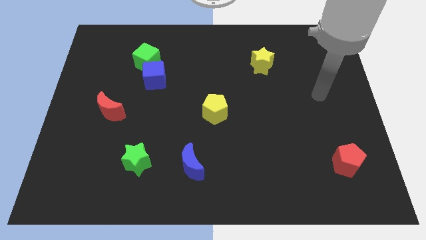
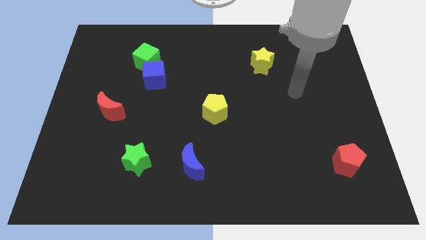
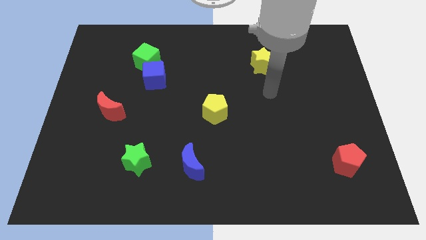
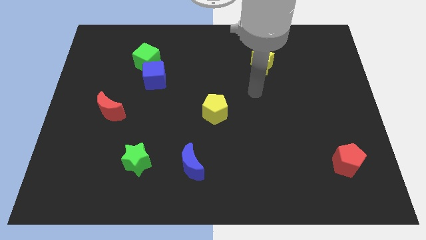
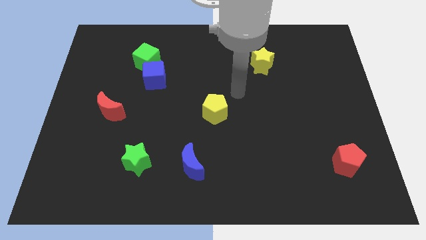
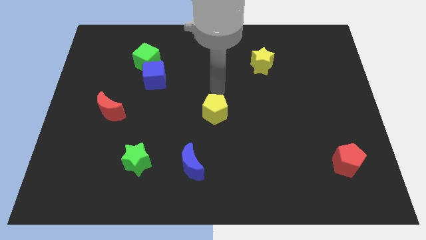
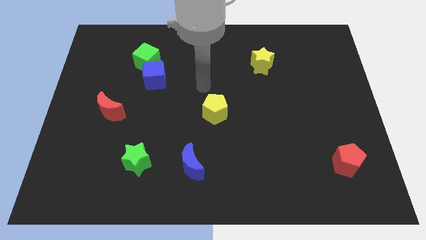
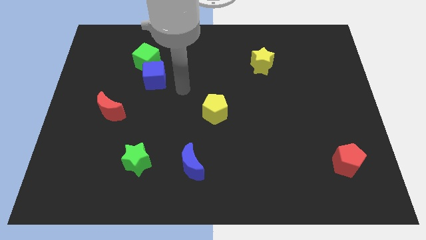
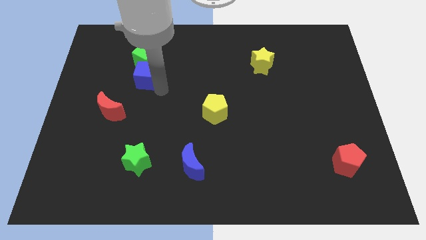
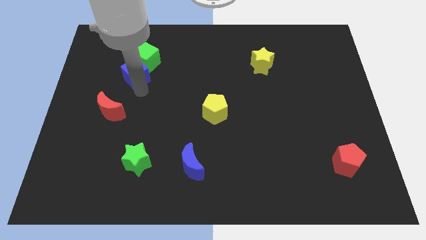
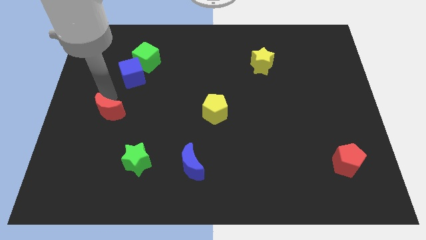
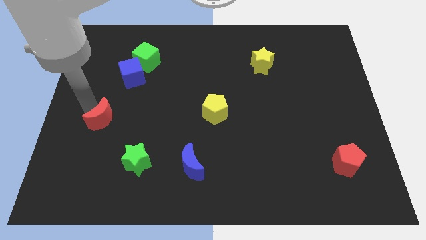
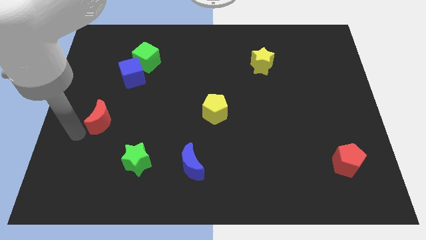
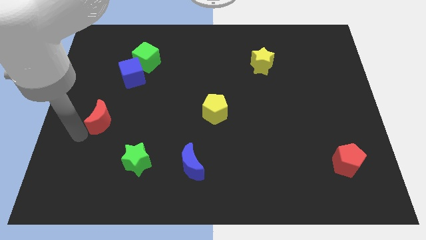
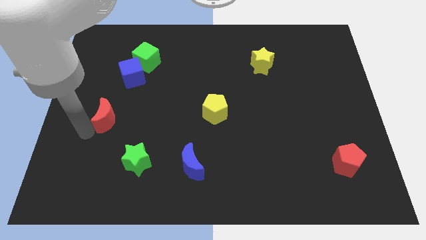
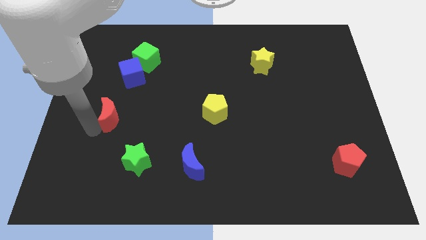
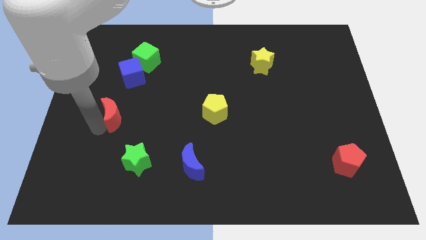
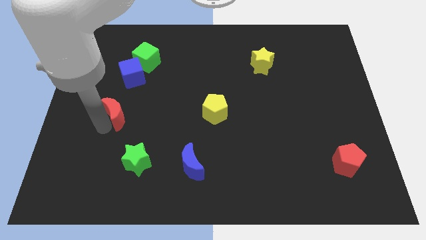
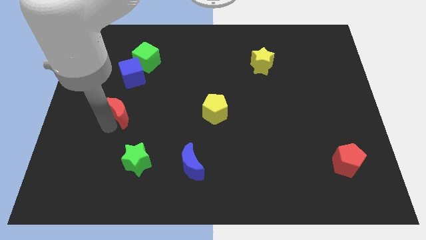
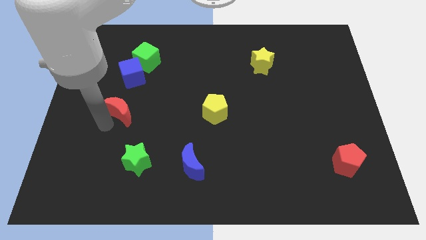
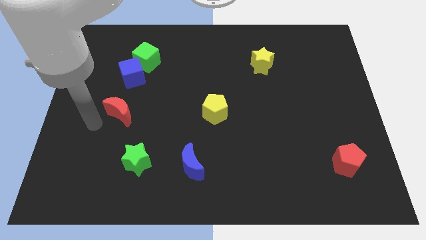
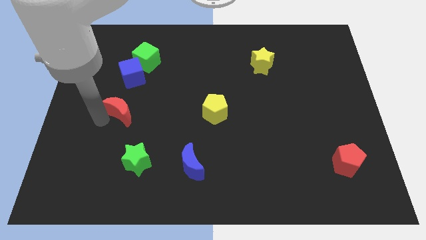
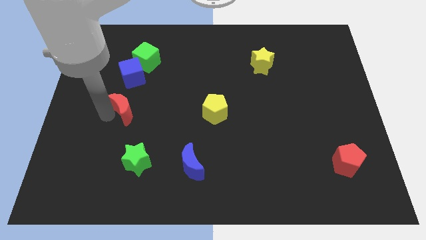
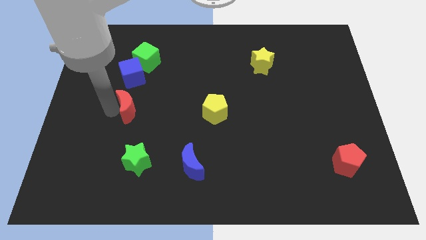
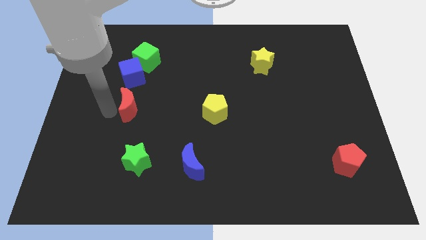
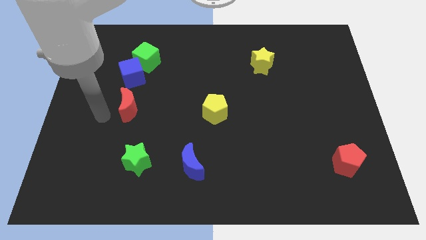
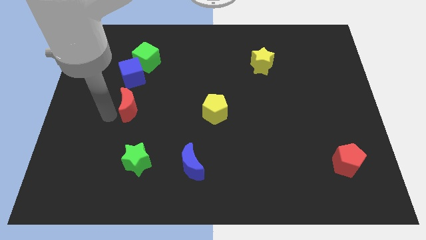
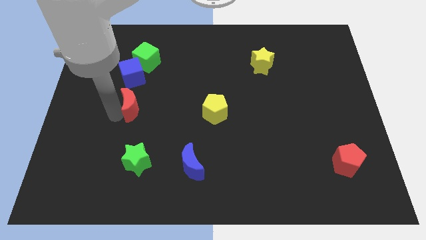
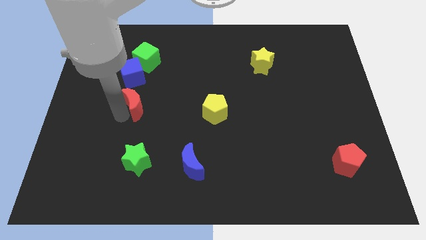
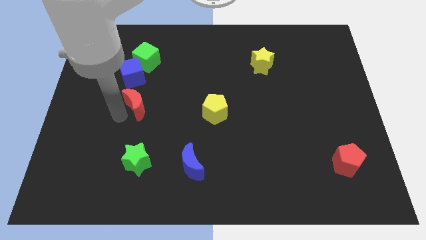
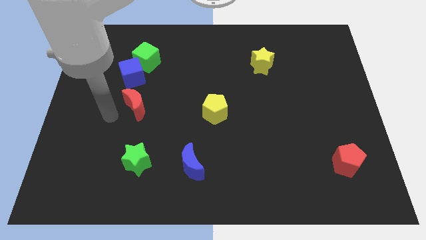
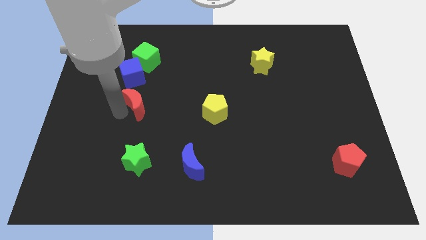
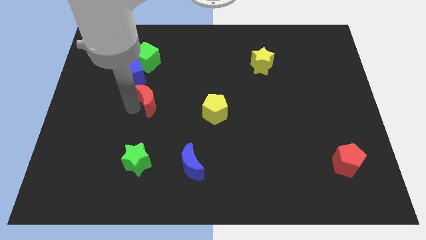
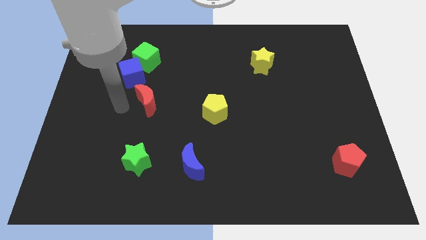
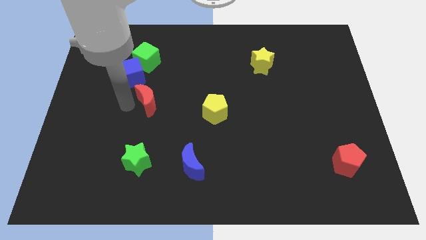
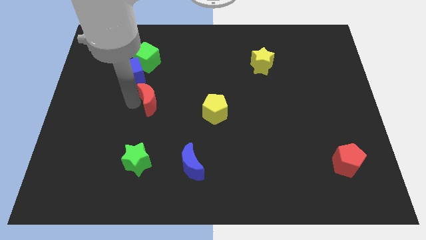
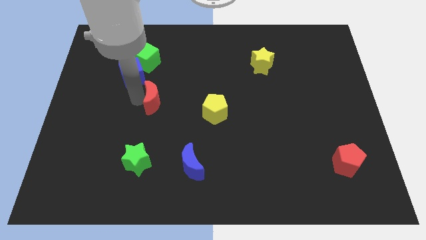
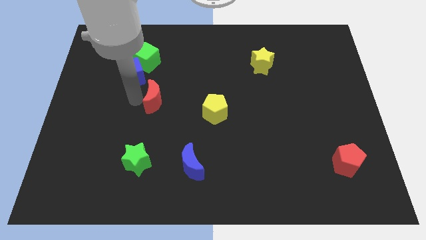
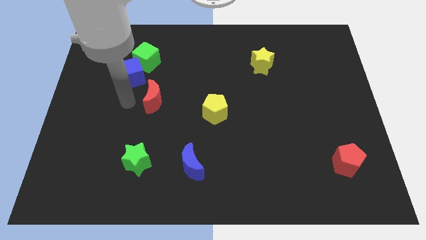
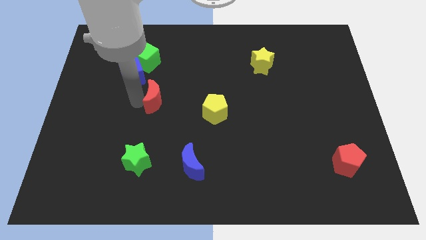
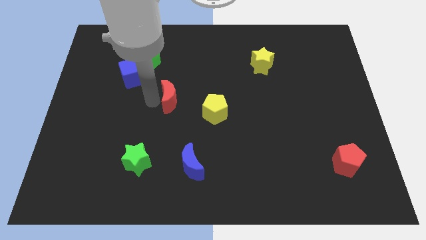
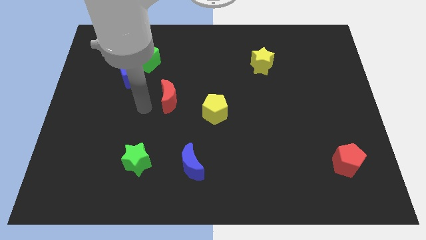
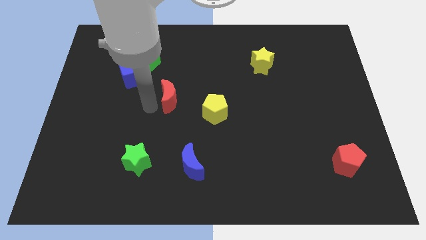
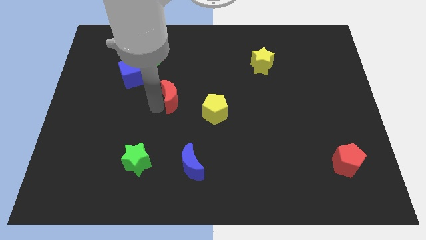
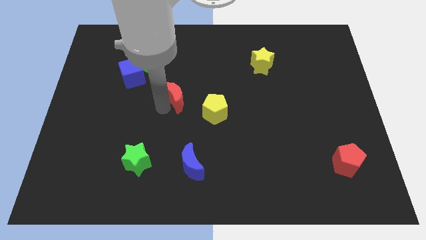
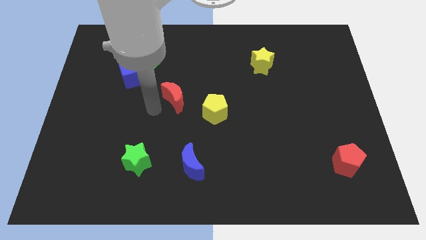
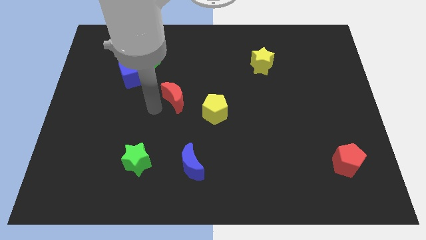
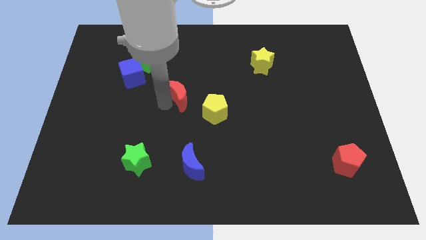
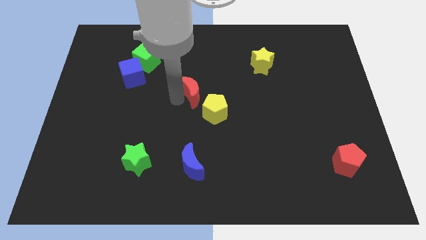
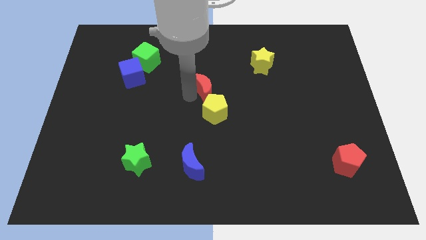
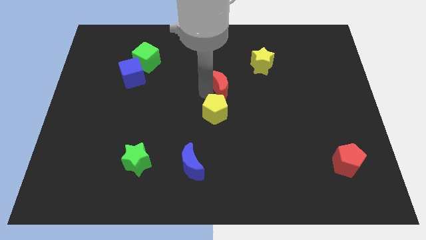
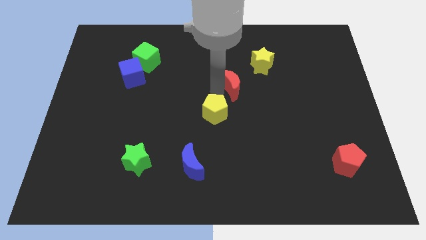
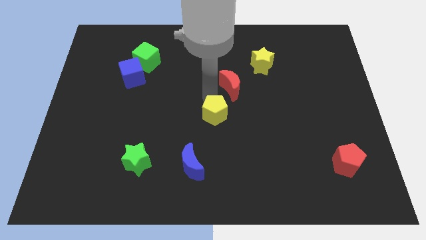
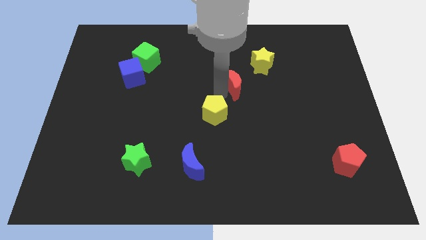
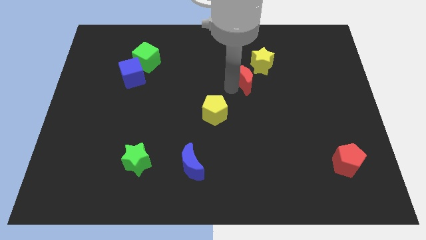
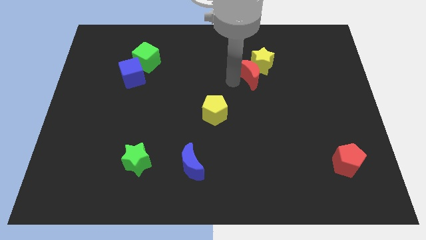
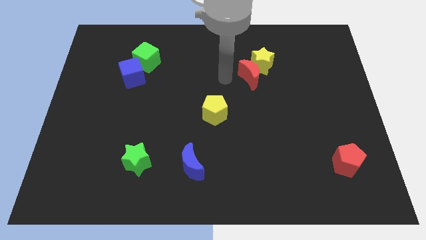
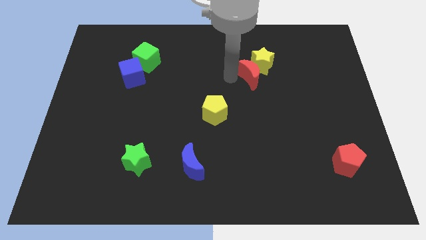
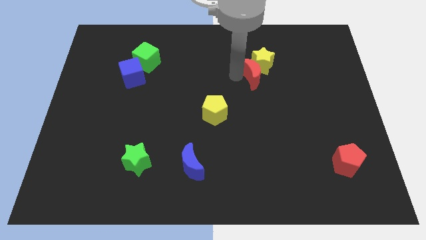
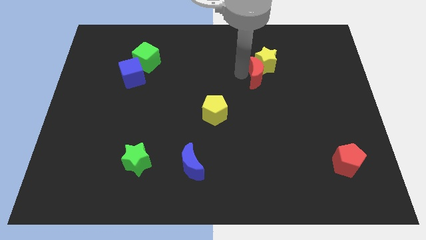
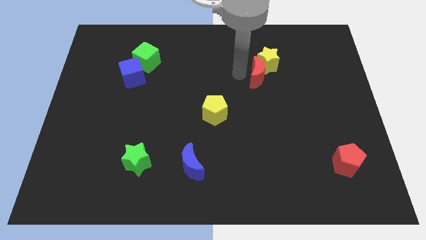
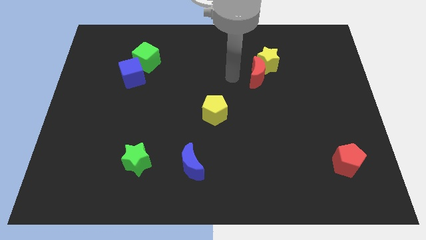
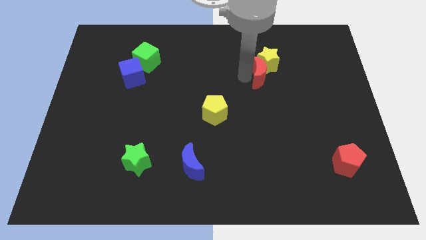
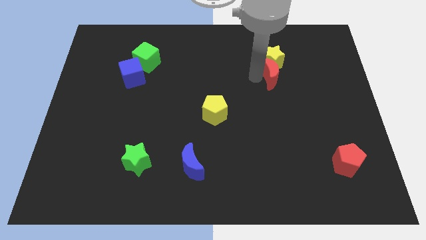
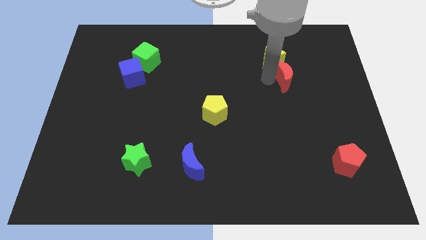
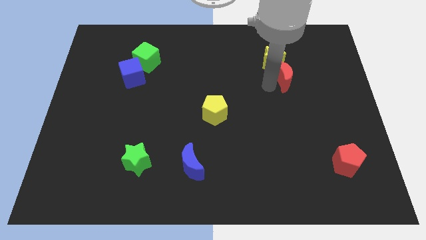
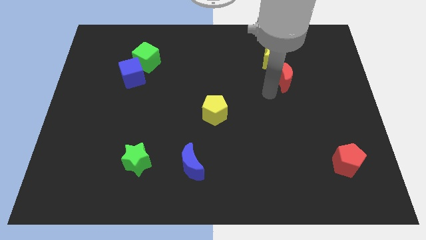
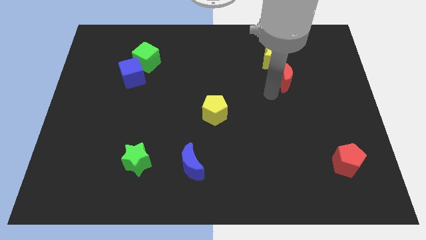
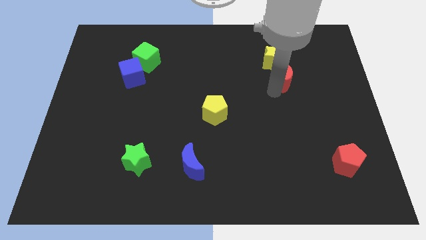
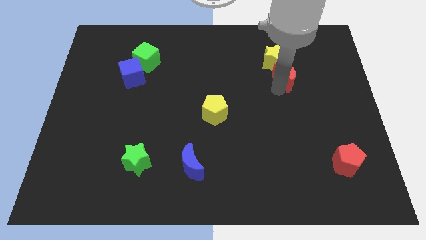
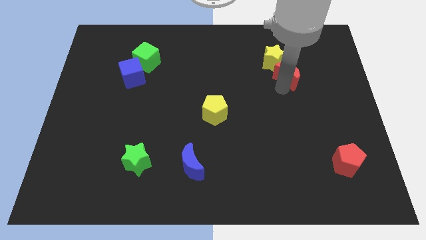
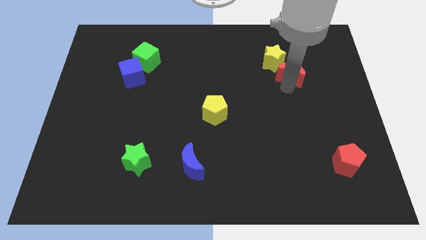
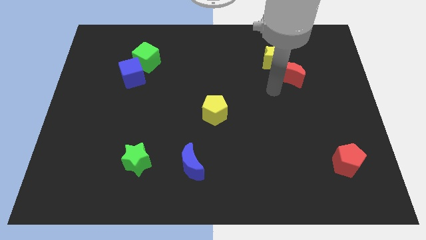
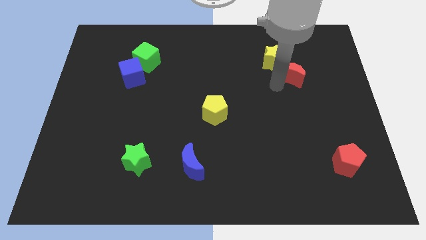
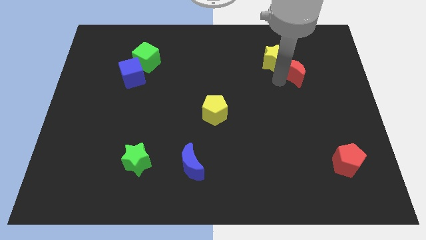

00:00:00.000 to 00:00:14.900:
push the red moon just right of the yellow star

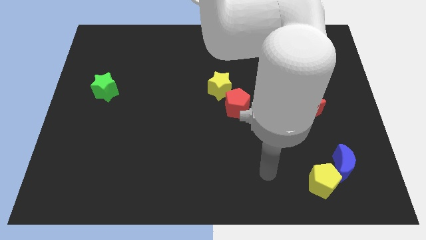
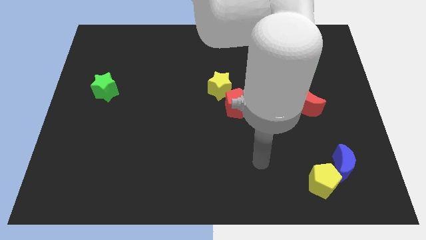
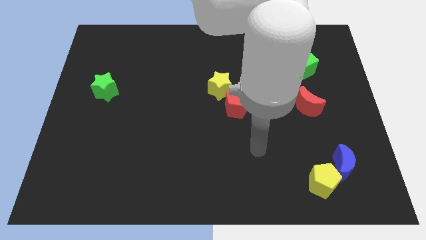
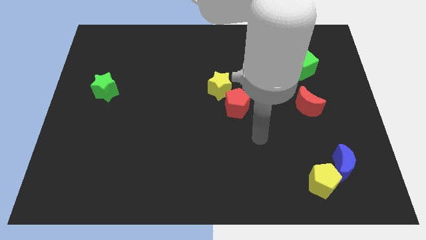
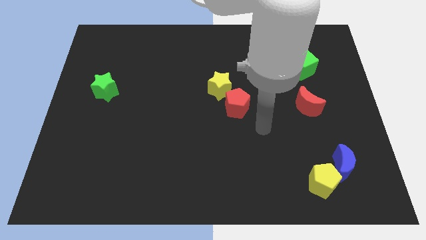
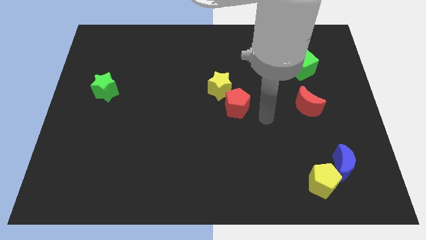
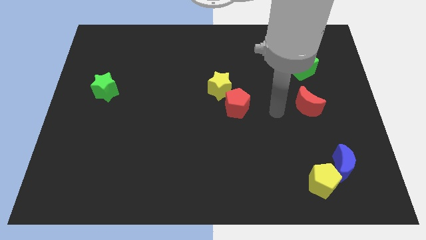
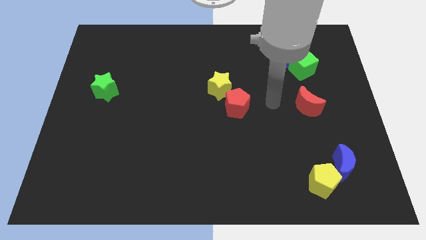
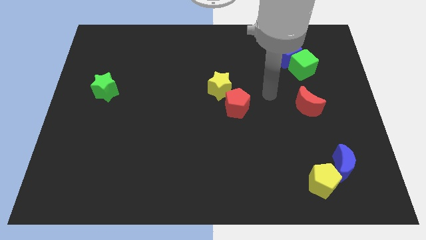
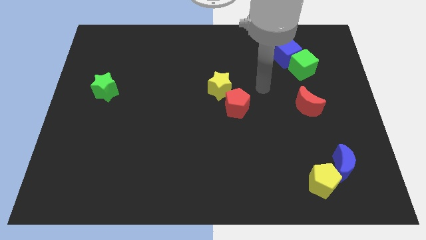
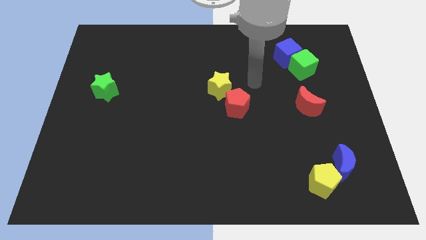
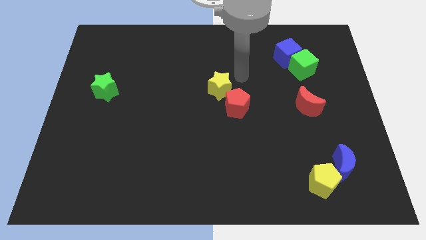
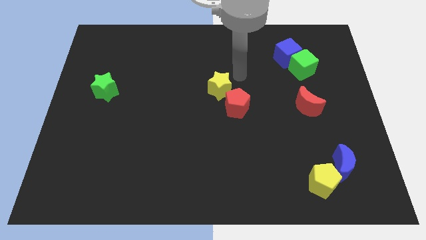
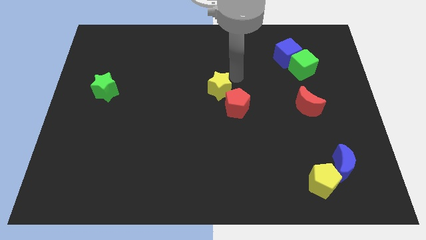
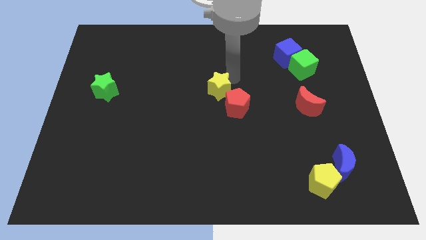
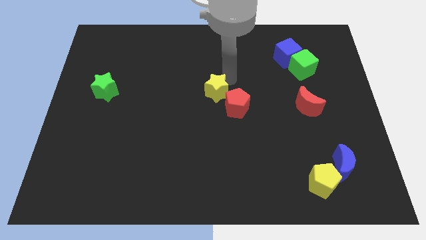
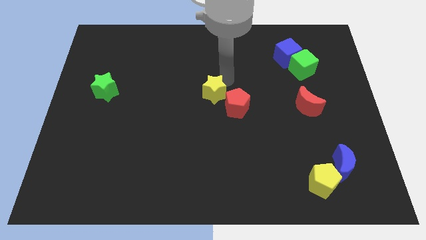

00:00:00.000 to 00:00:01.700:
put the yellow star just left of the red pentagon
